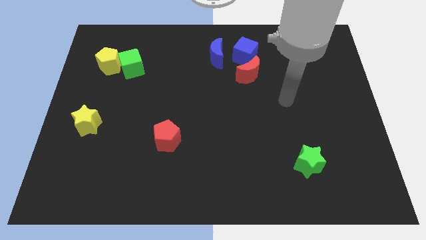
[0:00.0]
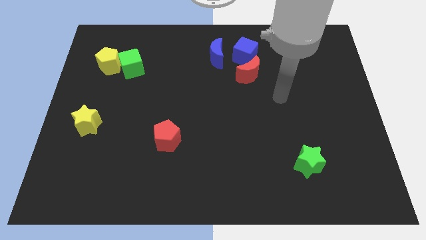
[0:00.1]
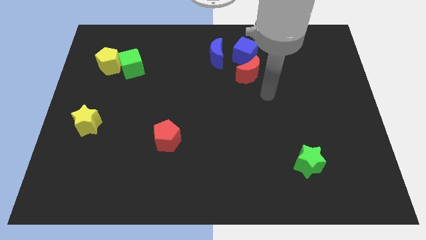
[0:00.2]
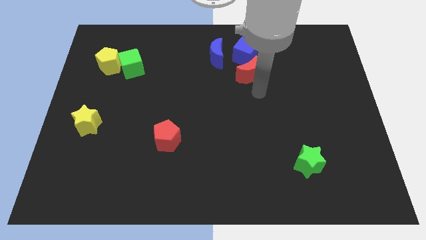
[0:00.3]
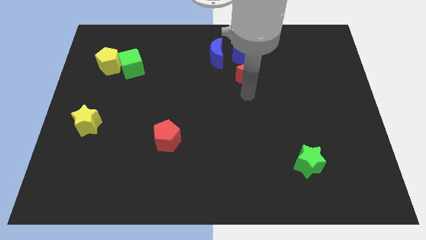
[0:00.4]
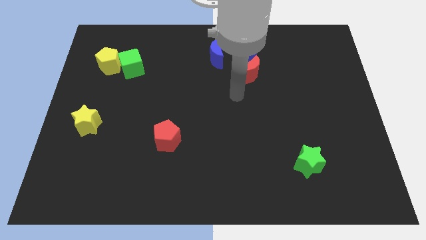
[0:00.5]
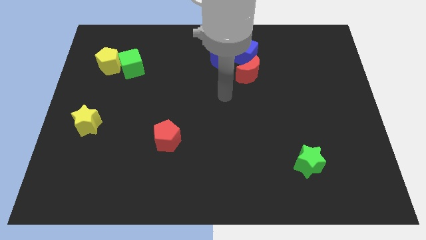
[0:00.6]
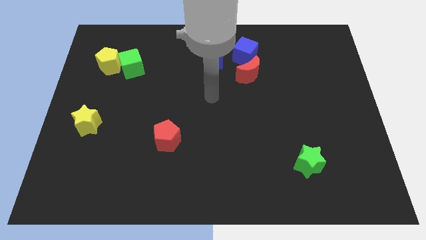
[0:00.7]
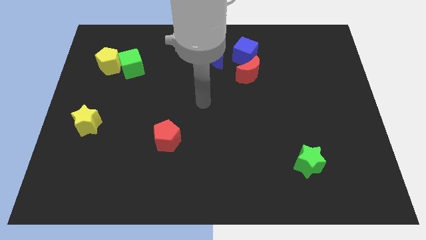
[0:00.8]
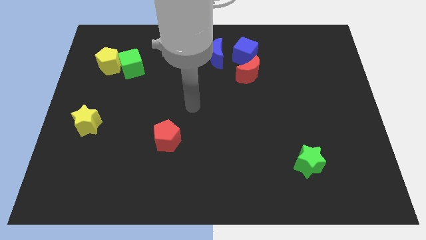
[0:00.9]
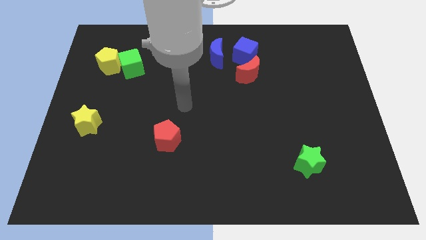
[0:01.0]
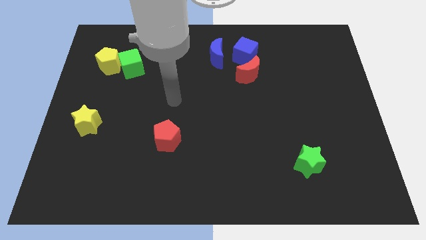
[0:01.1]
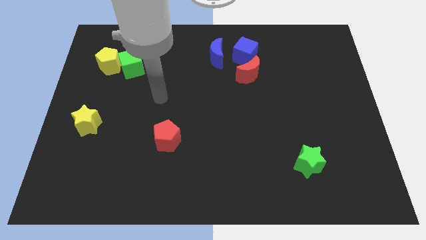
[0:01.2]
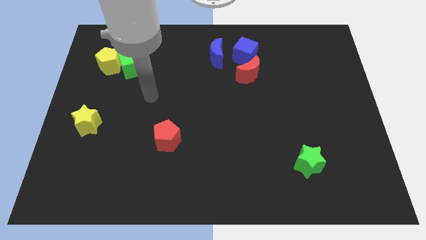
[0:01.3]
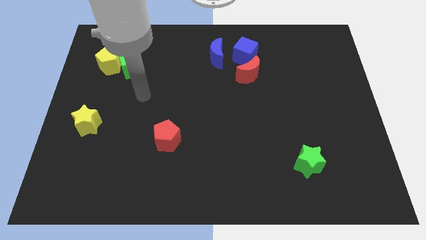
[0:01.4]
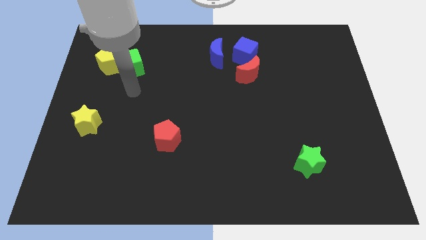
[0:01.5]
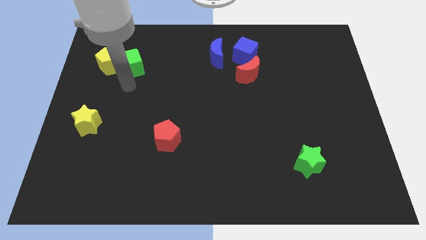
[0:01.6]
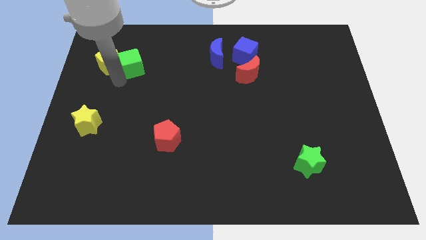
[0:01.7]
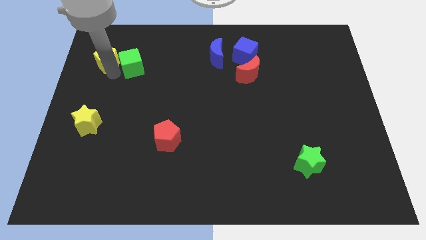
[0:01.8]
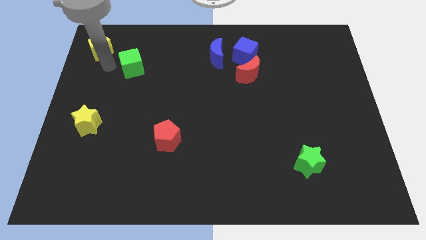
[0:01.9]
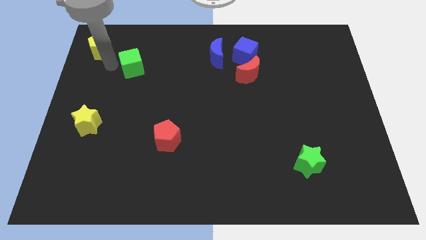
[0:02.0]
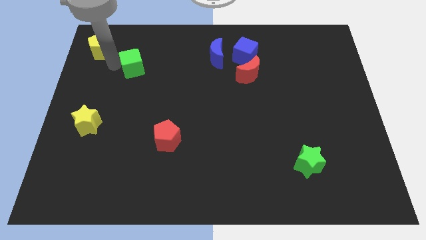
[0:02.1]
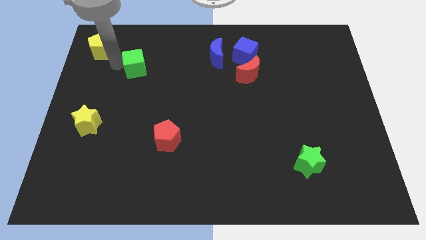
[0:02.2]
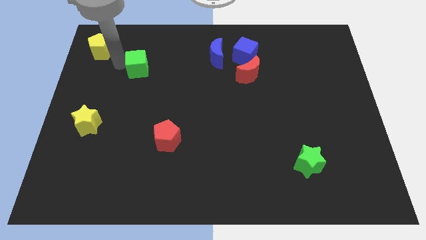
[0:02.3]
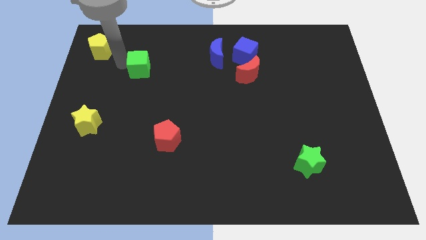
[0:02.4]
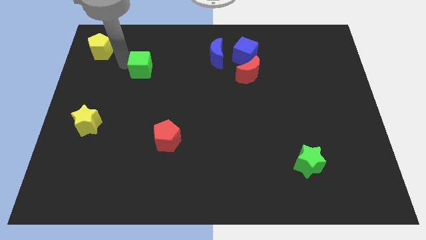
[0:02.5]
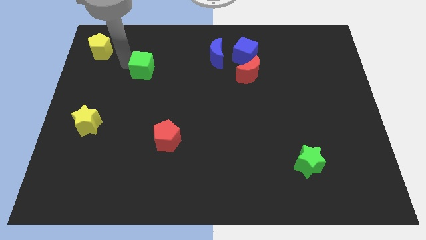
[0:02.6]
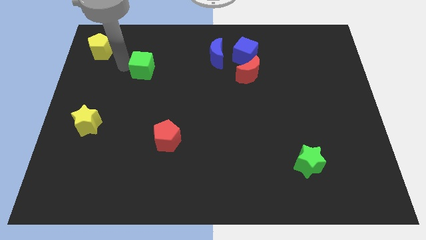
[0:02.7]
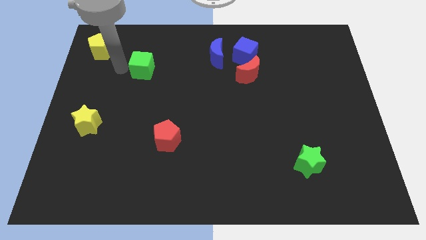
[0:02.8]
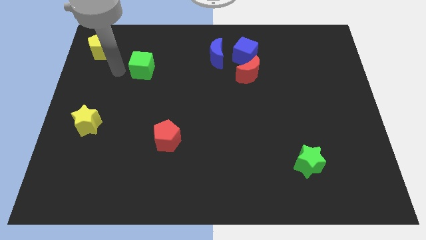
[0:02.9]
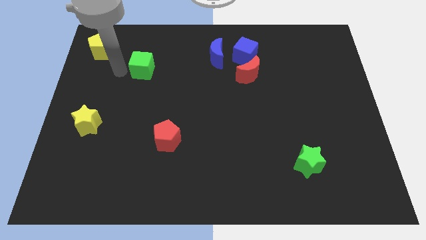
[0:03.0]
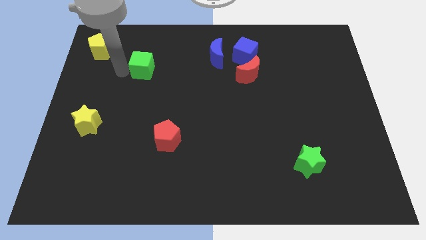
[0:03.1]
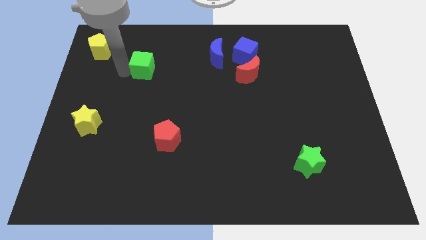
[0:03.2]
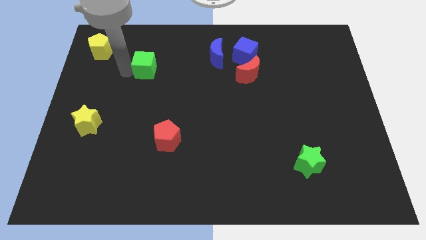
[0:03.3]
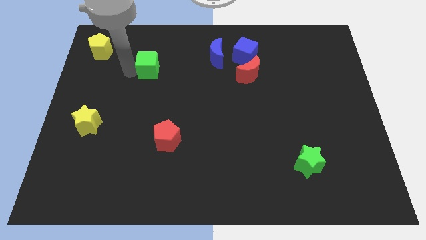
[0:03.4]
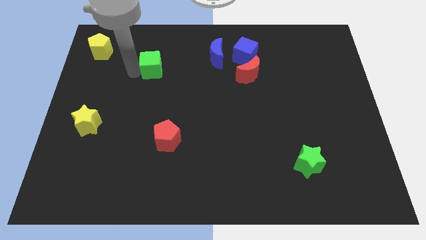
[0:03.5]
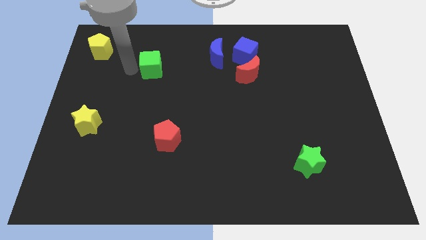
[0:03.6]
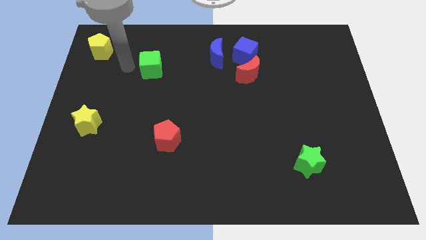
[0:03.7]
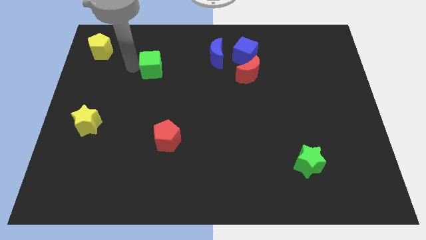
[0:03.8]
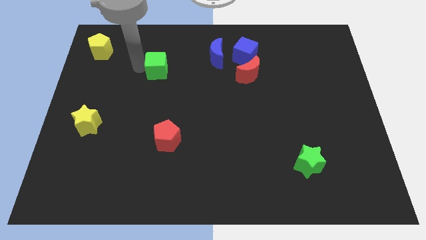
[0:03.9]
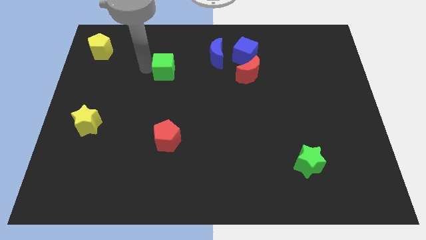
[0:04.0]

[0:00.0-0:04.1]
slide the green cube to the right slightly

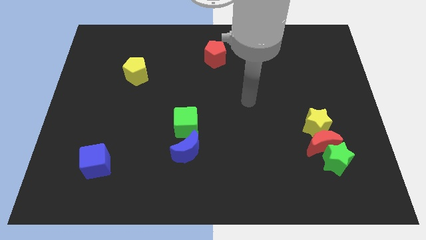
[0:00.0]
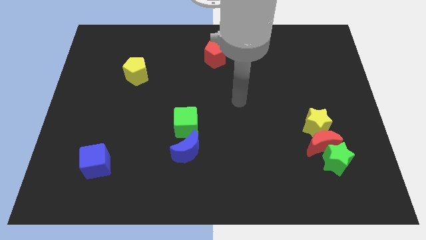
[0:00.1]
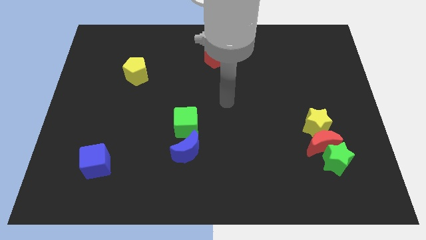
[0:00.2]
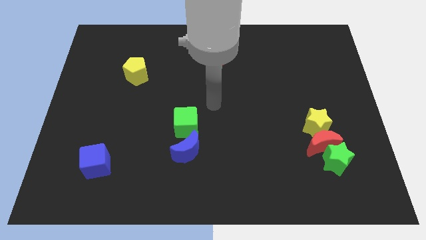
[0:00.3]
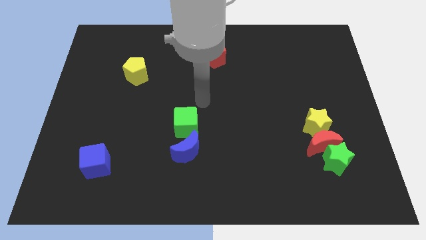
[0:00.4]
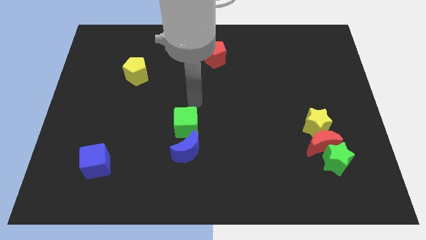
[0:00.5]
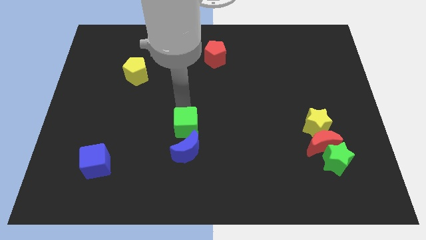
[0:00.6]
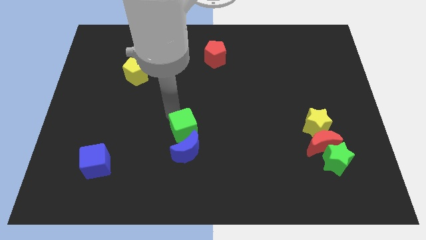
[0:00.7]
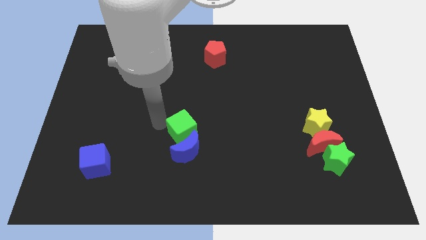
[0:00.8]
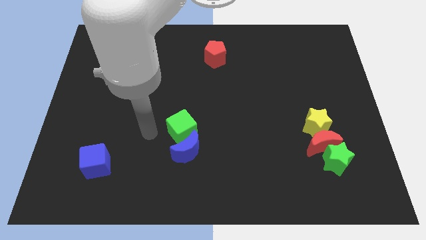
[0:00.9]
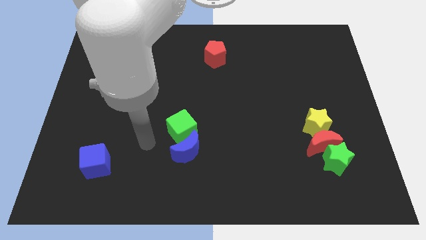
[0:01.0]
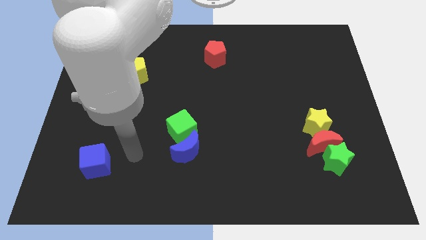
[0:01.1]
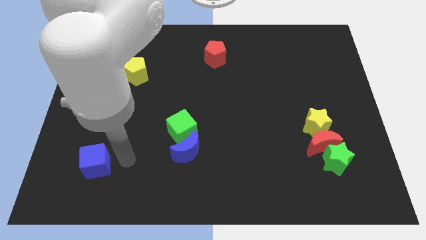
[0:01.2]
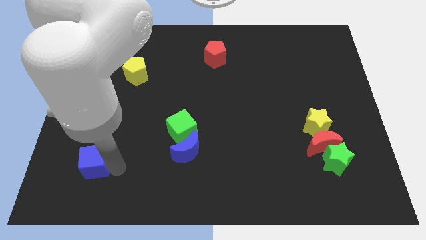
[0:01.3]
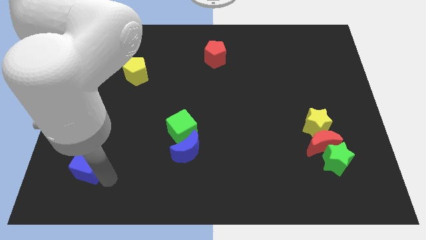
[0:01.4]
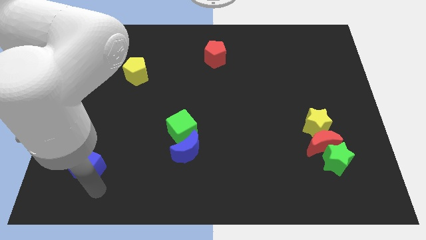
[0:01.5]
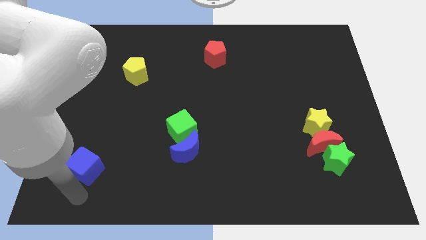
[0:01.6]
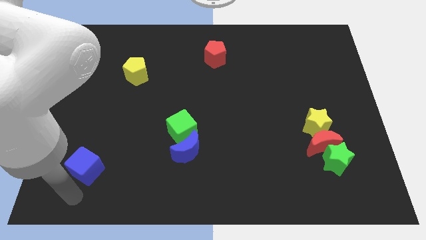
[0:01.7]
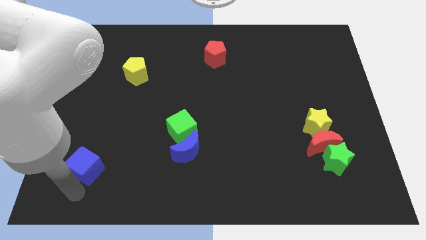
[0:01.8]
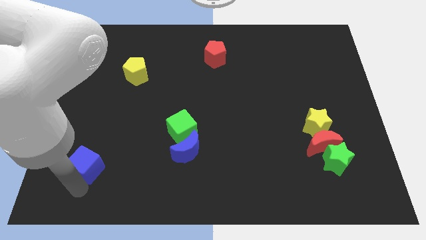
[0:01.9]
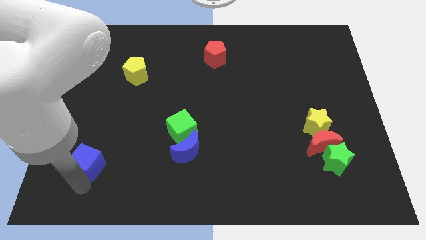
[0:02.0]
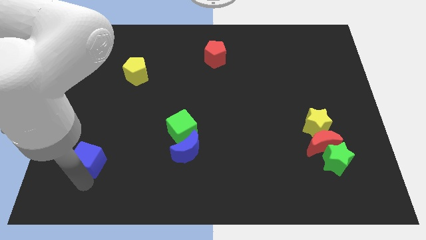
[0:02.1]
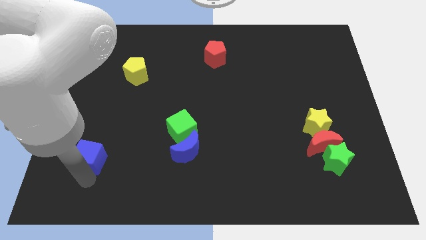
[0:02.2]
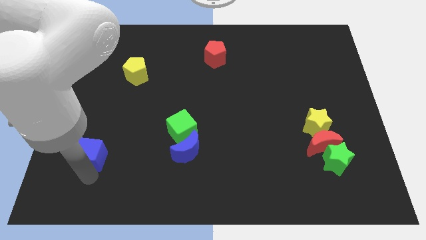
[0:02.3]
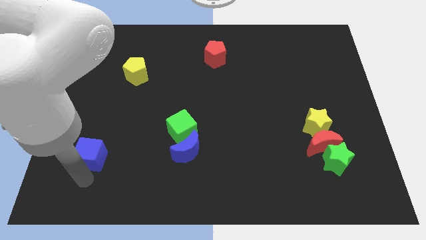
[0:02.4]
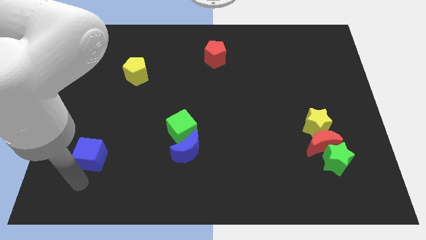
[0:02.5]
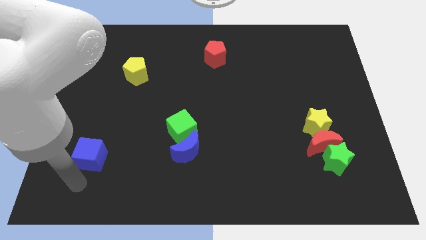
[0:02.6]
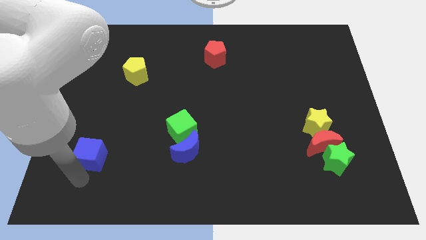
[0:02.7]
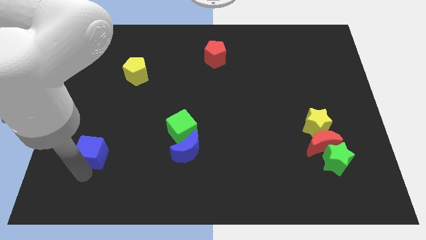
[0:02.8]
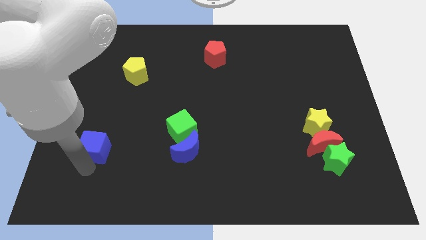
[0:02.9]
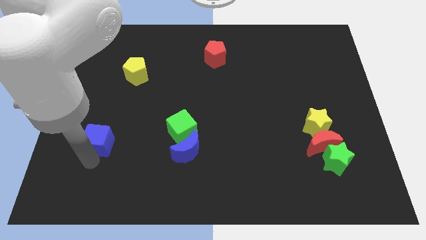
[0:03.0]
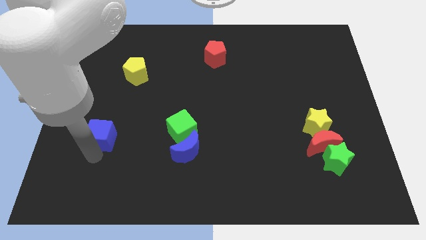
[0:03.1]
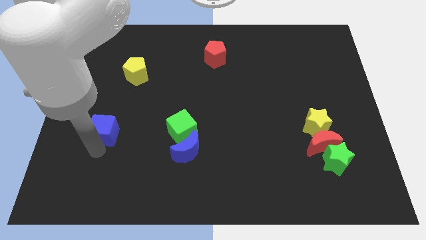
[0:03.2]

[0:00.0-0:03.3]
slightly move the blue cube upwards

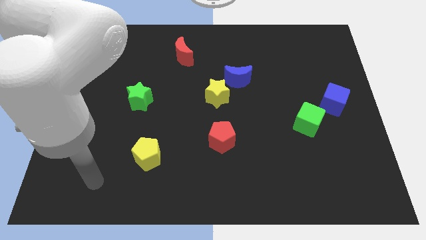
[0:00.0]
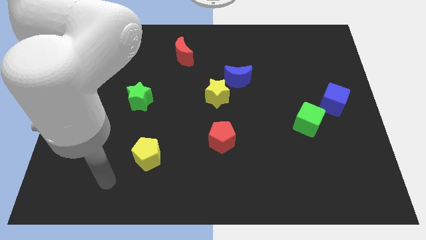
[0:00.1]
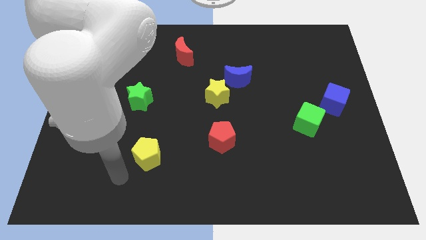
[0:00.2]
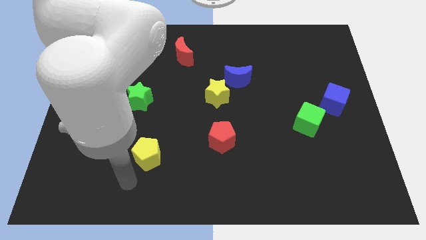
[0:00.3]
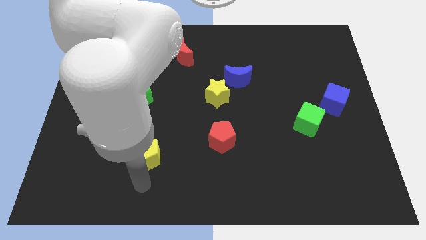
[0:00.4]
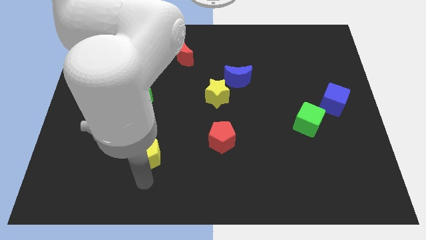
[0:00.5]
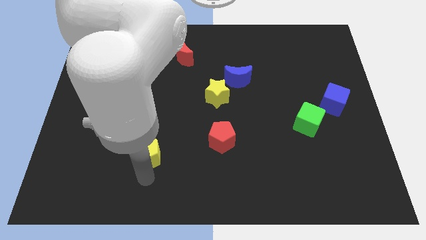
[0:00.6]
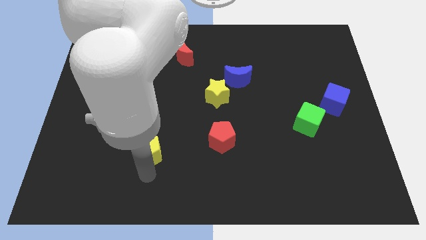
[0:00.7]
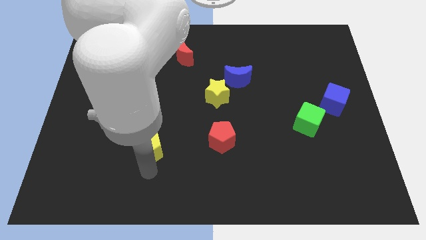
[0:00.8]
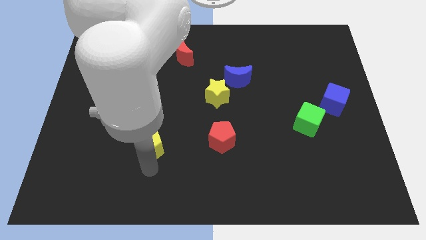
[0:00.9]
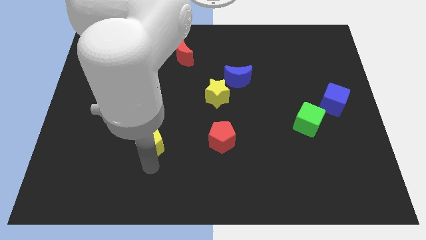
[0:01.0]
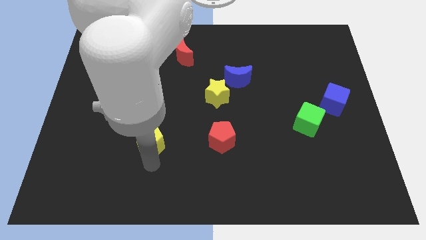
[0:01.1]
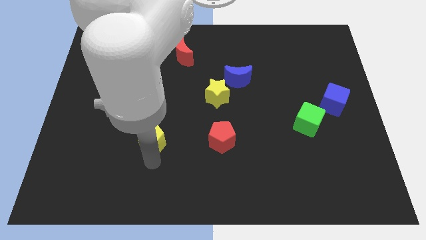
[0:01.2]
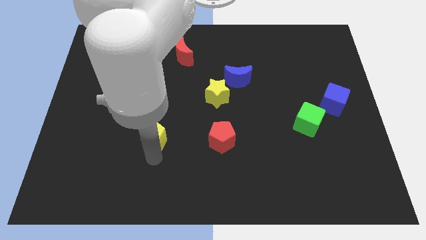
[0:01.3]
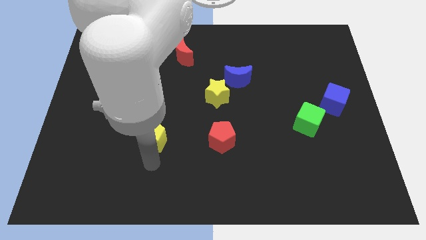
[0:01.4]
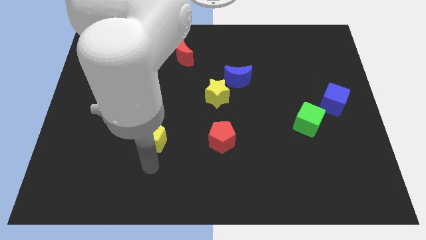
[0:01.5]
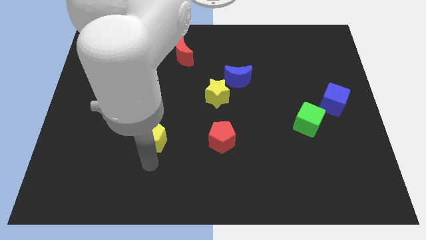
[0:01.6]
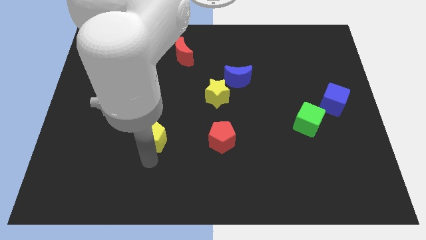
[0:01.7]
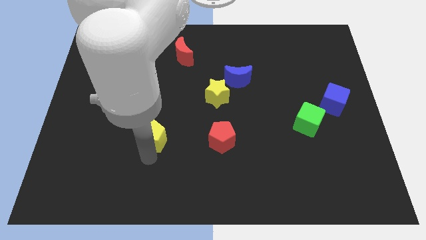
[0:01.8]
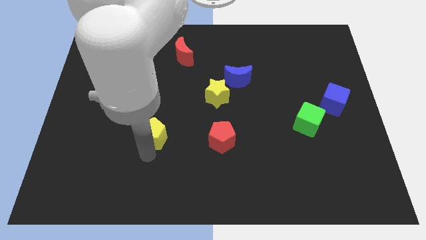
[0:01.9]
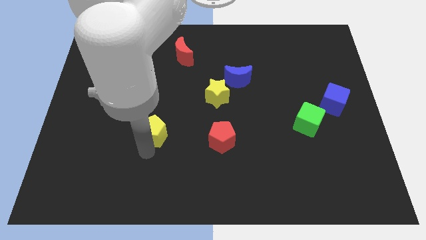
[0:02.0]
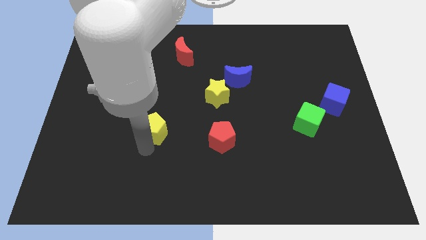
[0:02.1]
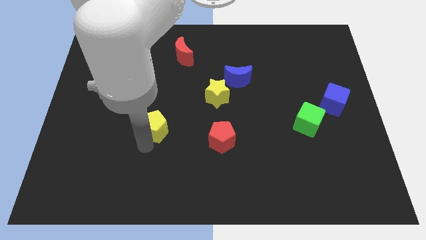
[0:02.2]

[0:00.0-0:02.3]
slide the yellow pentagon upwards a little
